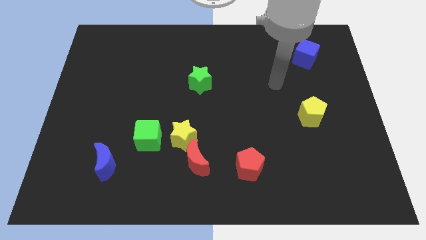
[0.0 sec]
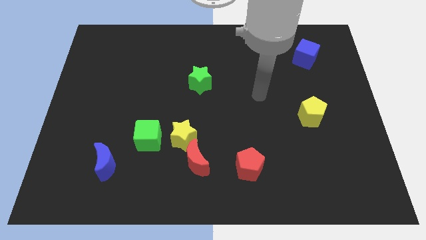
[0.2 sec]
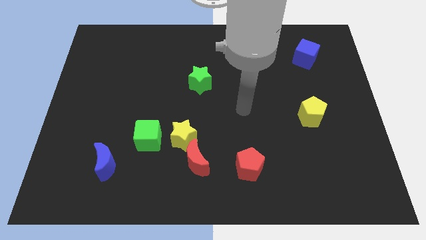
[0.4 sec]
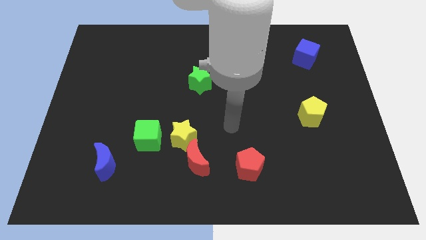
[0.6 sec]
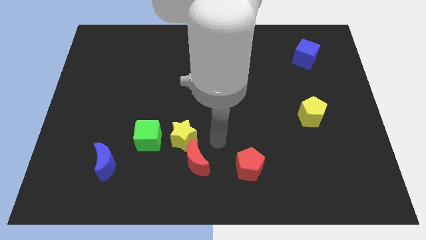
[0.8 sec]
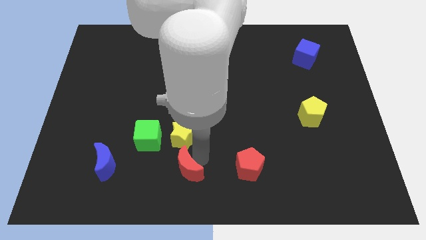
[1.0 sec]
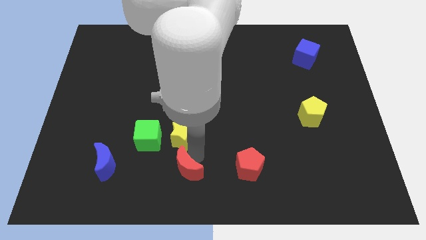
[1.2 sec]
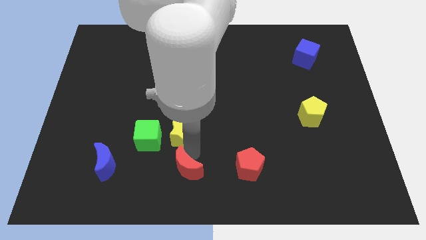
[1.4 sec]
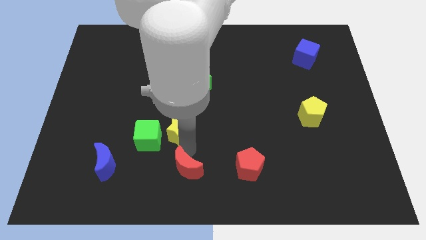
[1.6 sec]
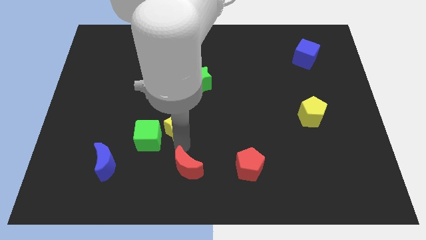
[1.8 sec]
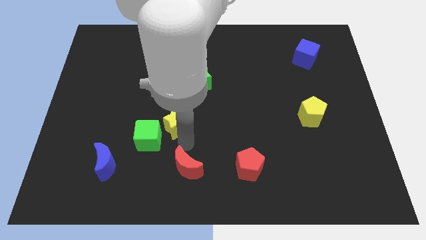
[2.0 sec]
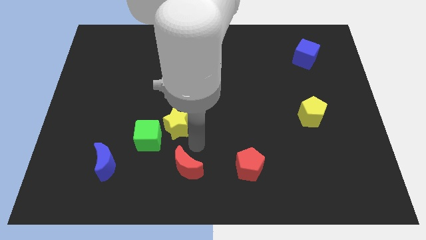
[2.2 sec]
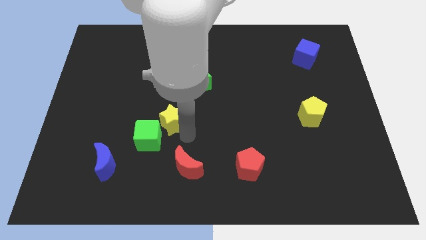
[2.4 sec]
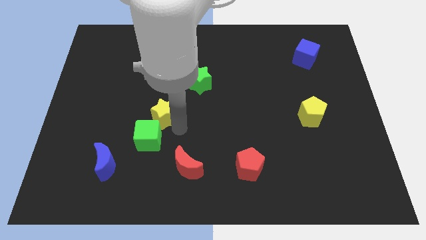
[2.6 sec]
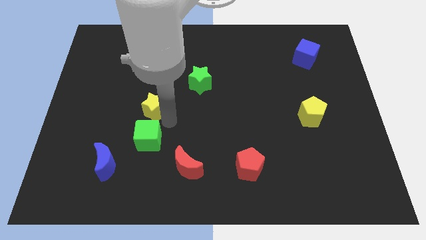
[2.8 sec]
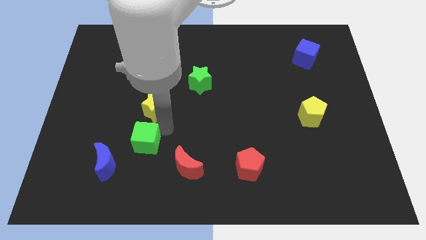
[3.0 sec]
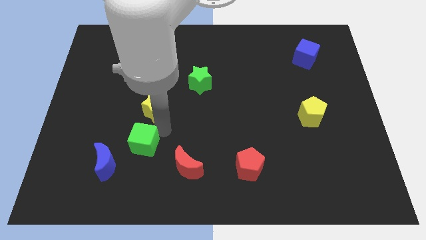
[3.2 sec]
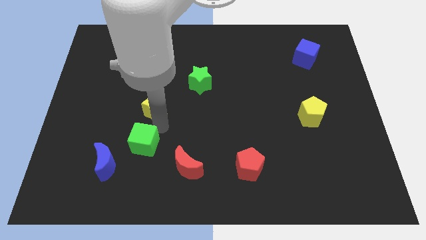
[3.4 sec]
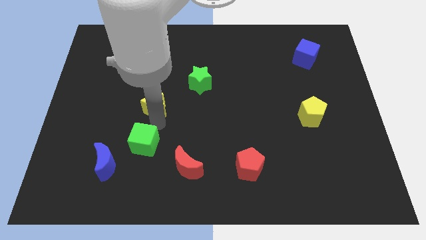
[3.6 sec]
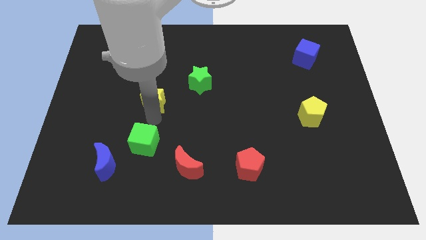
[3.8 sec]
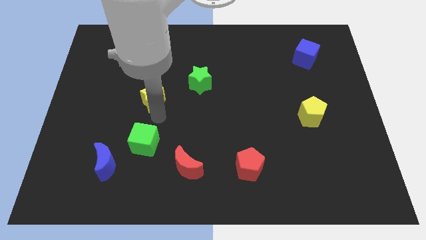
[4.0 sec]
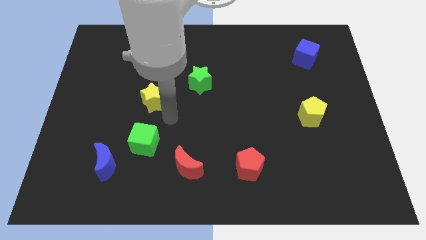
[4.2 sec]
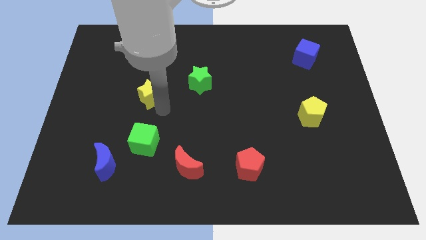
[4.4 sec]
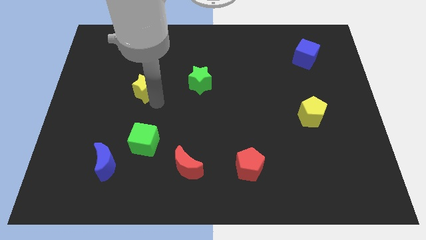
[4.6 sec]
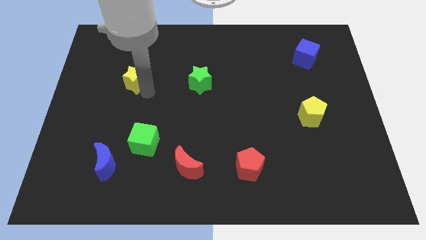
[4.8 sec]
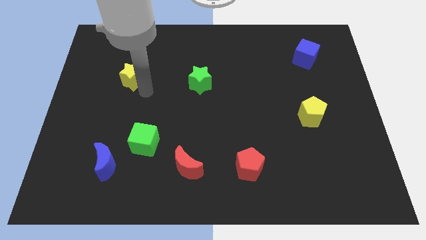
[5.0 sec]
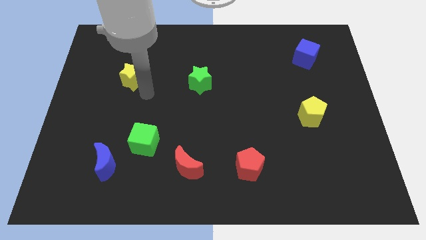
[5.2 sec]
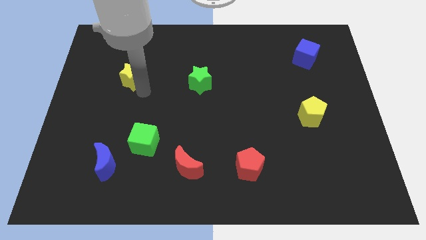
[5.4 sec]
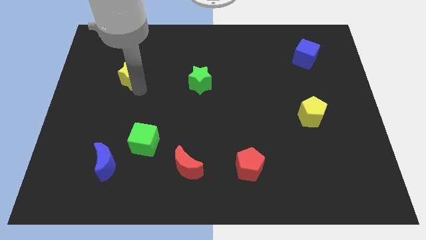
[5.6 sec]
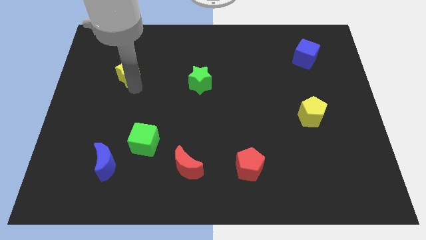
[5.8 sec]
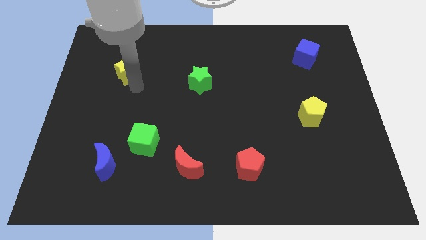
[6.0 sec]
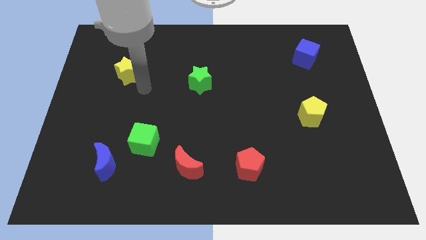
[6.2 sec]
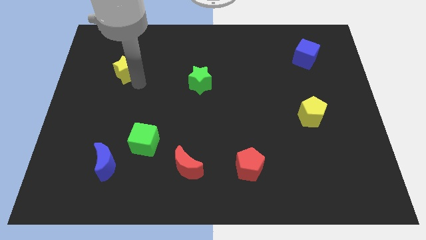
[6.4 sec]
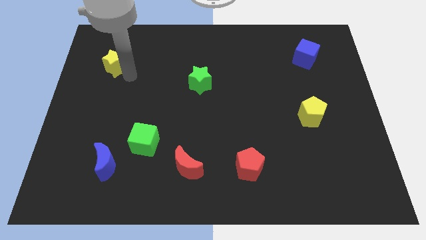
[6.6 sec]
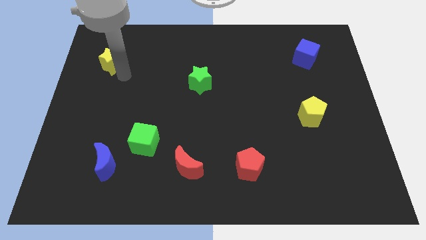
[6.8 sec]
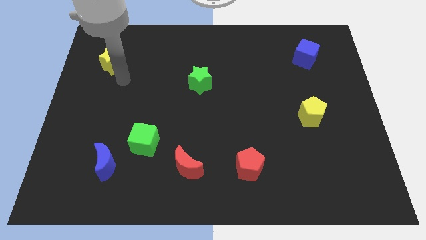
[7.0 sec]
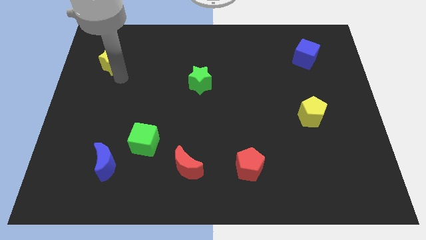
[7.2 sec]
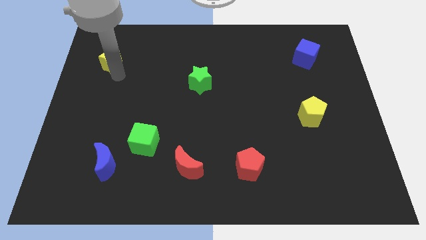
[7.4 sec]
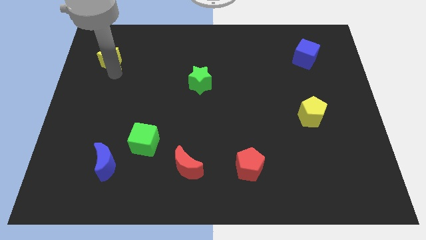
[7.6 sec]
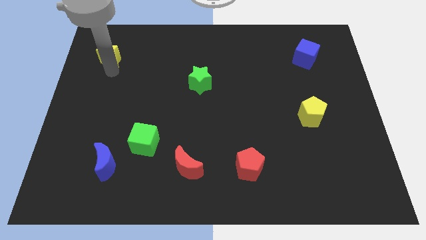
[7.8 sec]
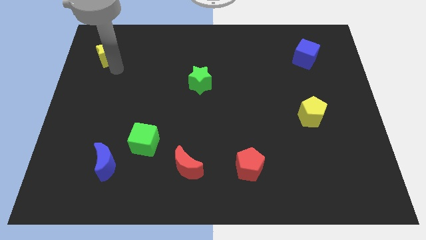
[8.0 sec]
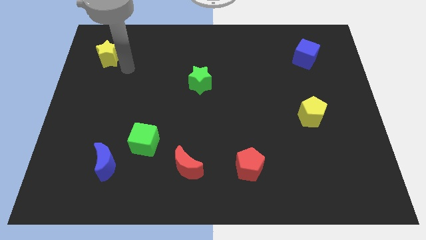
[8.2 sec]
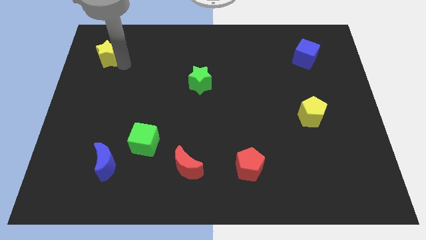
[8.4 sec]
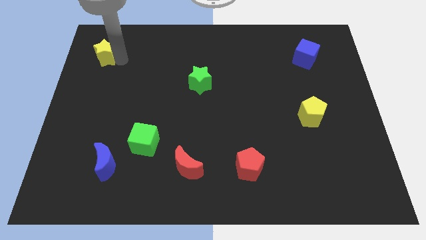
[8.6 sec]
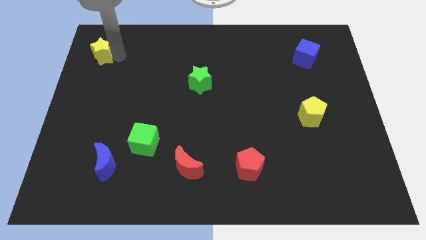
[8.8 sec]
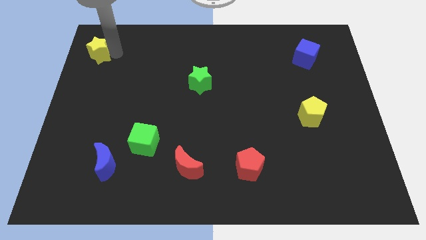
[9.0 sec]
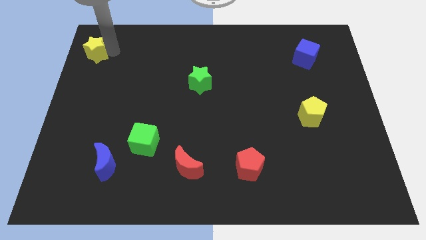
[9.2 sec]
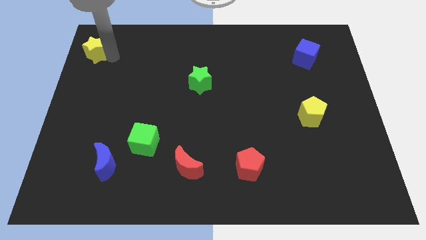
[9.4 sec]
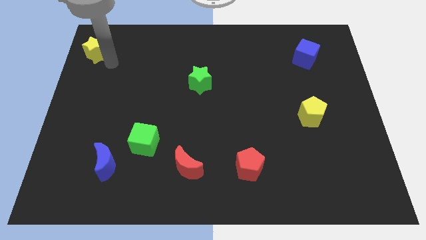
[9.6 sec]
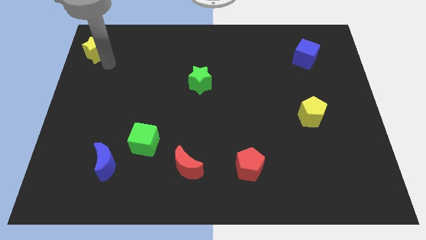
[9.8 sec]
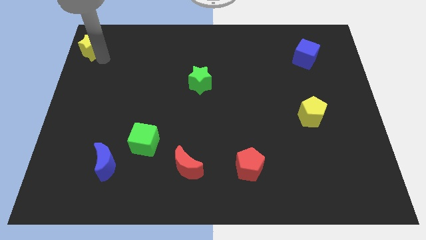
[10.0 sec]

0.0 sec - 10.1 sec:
slide the yellow star to the upper left corner

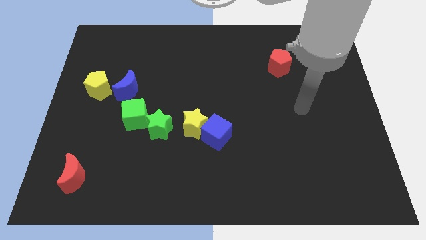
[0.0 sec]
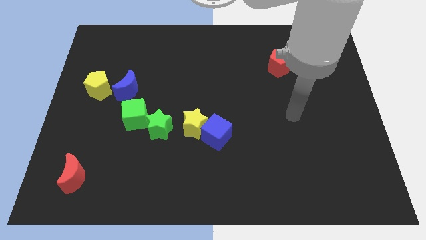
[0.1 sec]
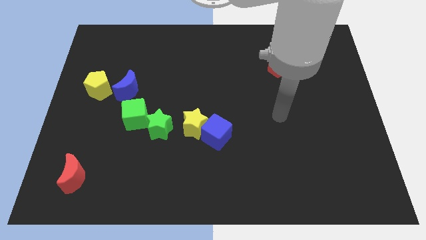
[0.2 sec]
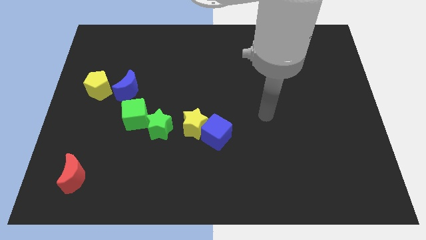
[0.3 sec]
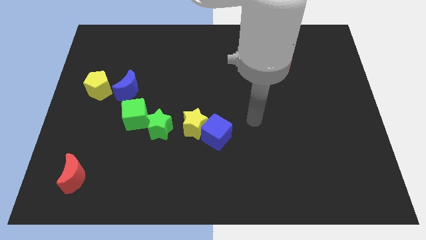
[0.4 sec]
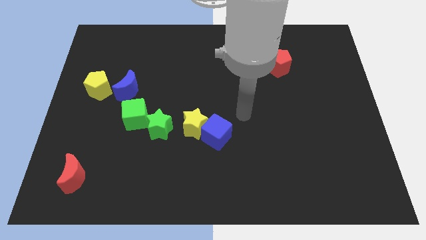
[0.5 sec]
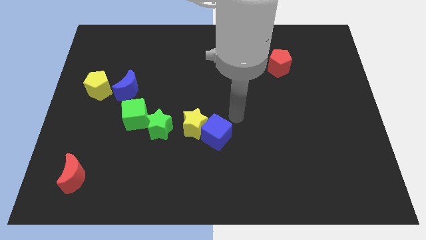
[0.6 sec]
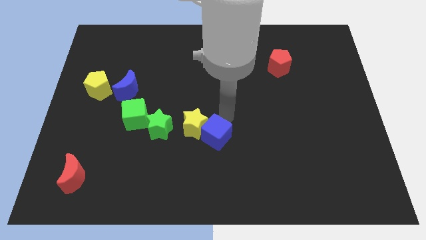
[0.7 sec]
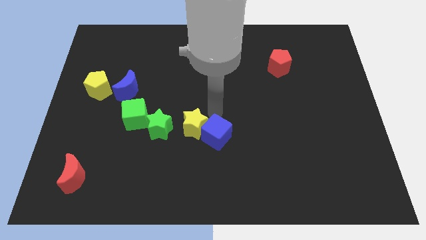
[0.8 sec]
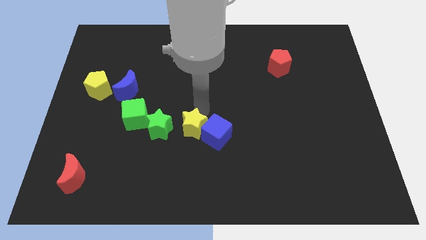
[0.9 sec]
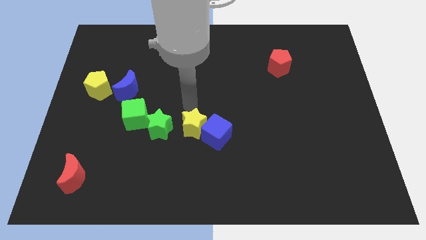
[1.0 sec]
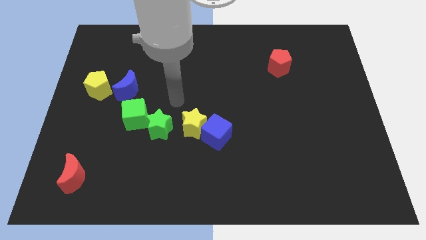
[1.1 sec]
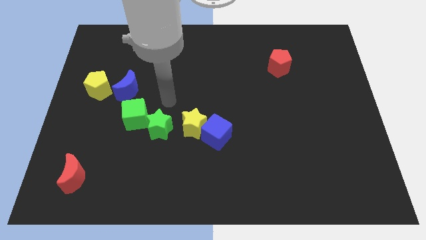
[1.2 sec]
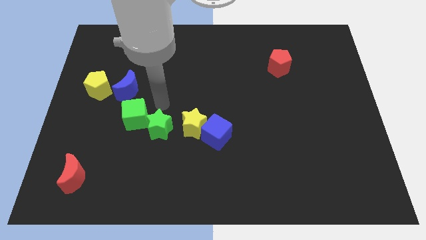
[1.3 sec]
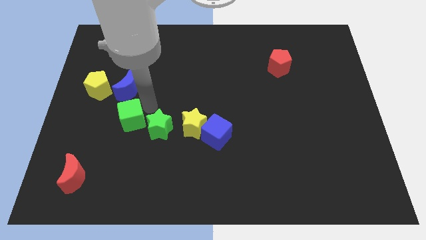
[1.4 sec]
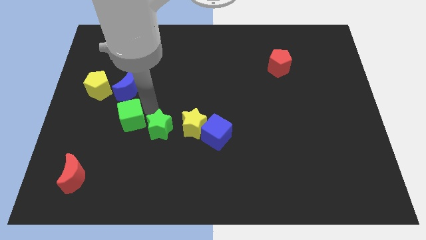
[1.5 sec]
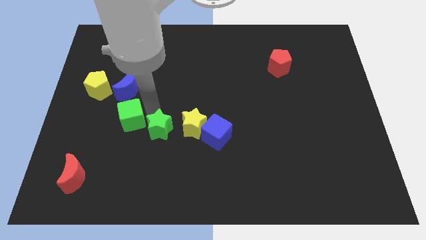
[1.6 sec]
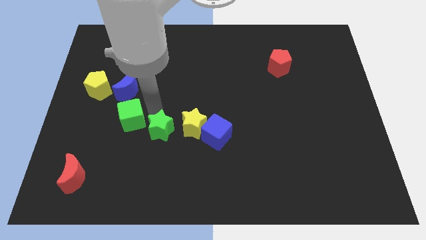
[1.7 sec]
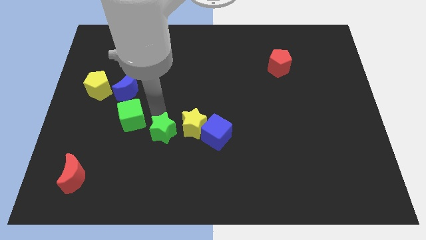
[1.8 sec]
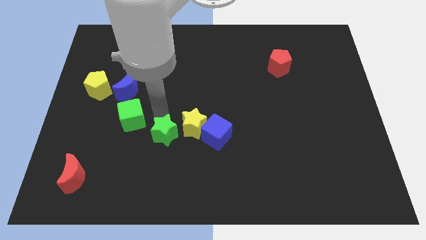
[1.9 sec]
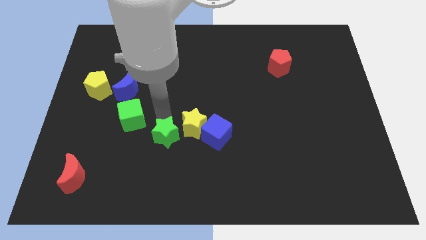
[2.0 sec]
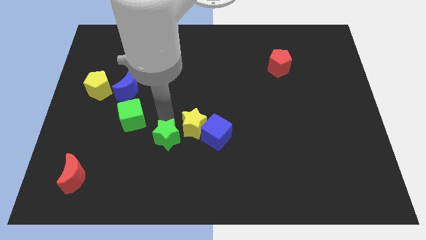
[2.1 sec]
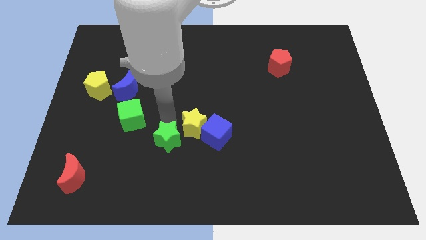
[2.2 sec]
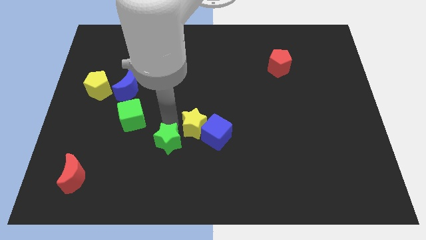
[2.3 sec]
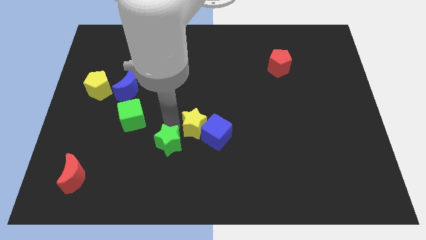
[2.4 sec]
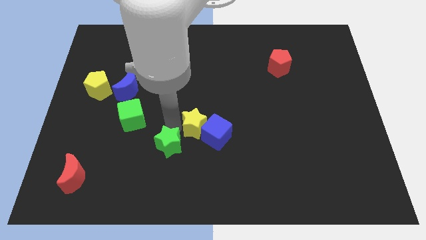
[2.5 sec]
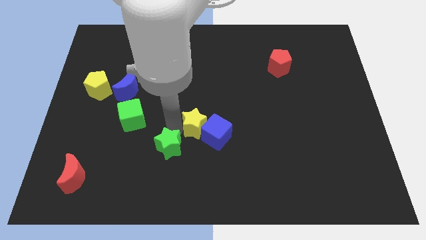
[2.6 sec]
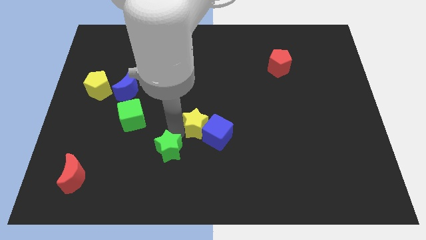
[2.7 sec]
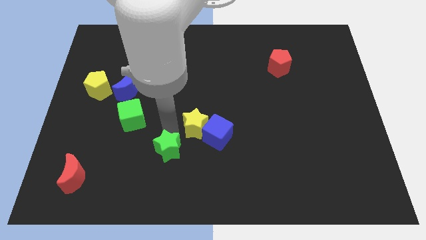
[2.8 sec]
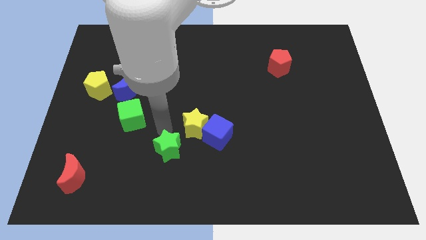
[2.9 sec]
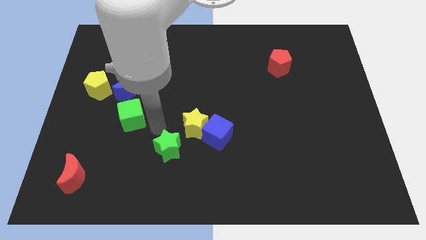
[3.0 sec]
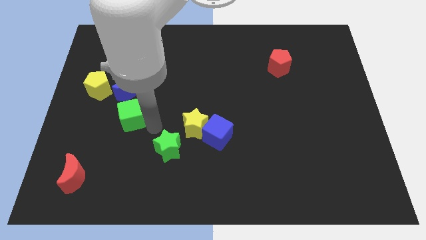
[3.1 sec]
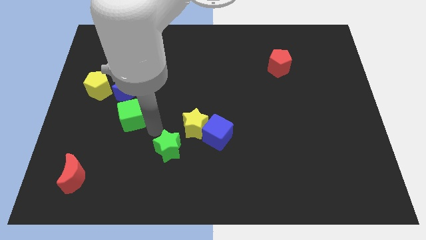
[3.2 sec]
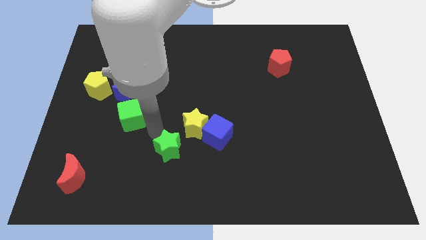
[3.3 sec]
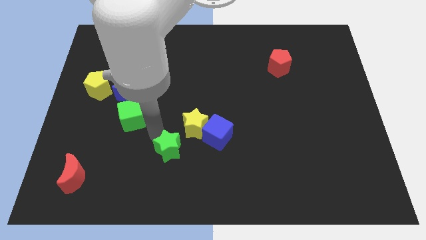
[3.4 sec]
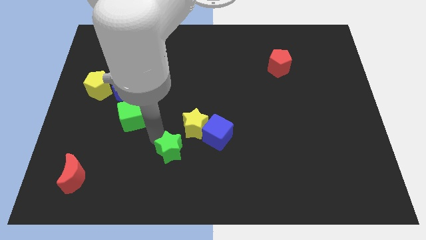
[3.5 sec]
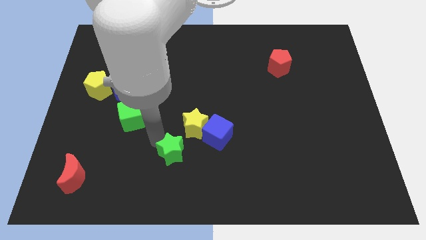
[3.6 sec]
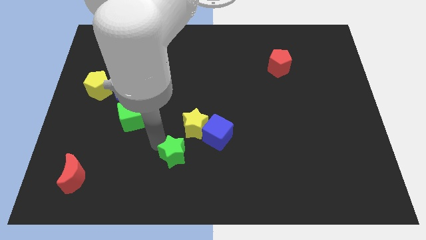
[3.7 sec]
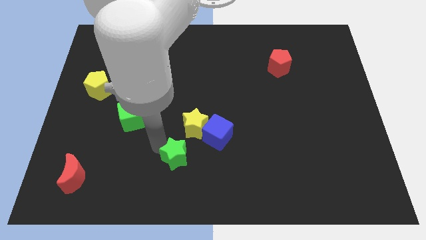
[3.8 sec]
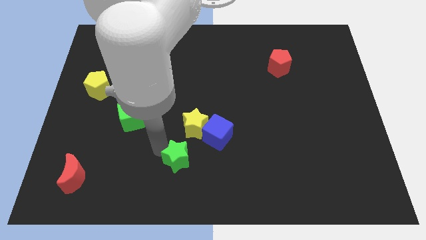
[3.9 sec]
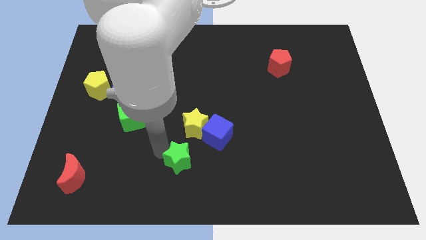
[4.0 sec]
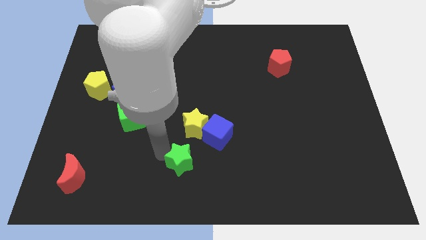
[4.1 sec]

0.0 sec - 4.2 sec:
move the green star to the bottom
